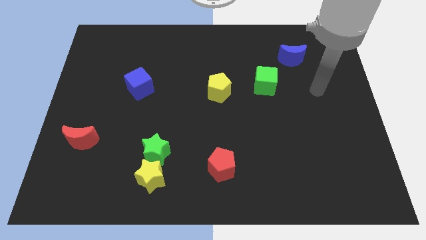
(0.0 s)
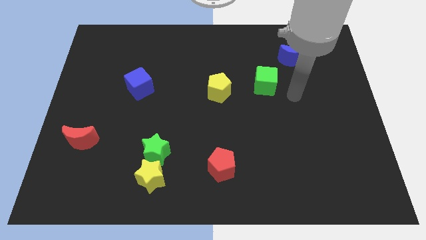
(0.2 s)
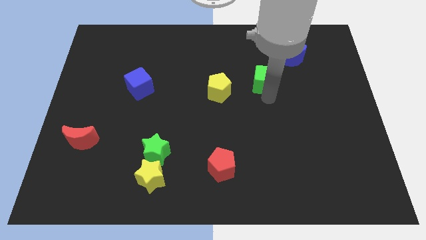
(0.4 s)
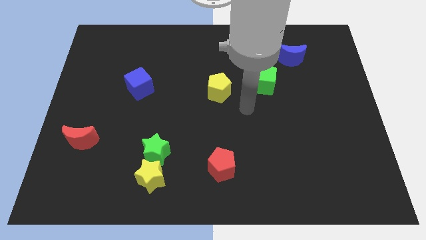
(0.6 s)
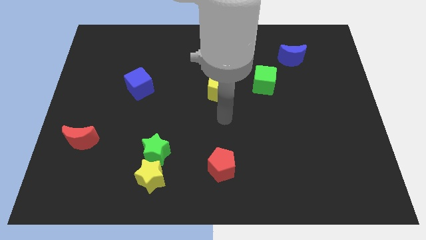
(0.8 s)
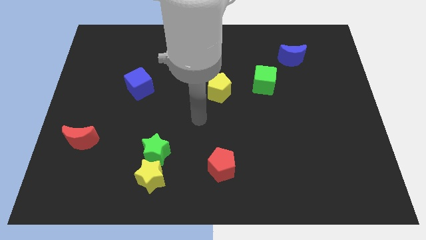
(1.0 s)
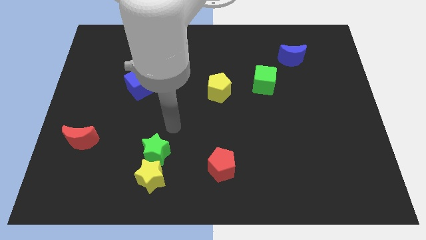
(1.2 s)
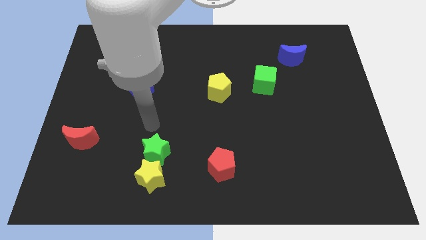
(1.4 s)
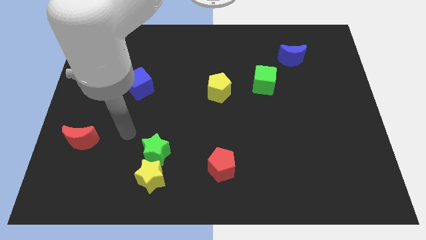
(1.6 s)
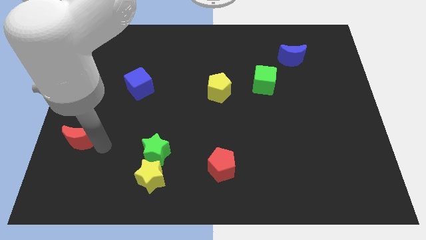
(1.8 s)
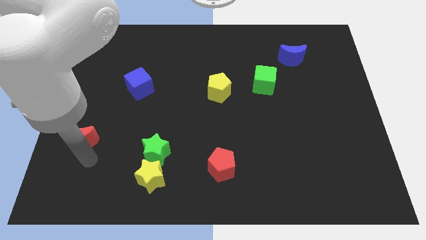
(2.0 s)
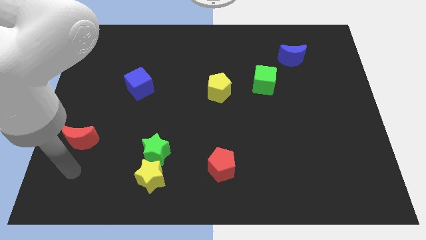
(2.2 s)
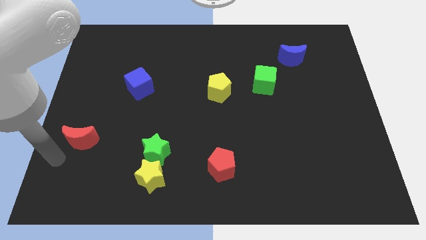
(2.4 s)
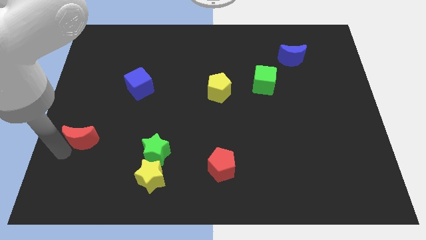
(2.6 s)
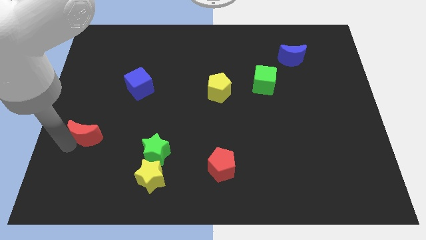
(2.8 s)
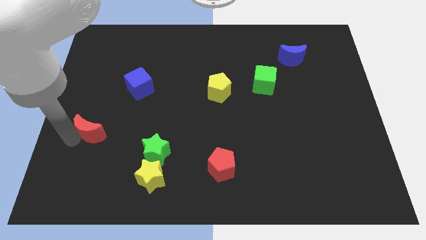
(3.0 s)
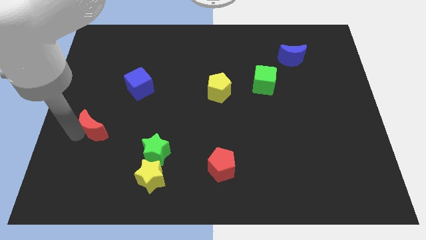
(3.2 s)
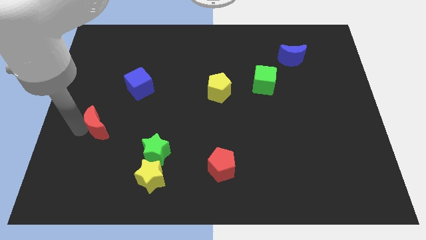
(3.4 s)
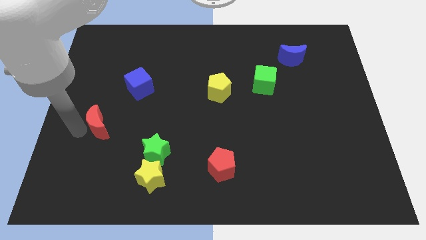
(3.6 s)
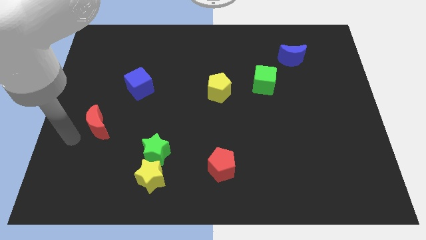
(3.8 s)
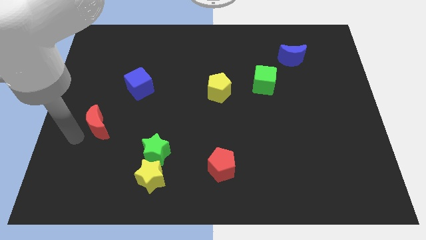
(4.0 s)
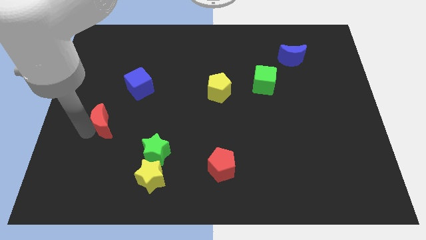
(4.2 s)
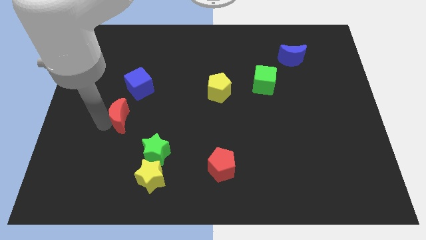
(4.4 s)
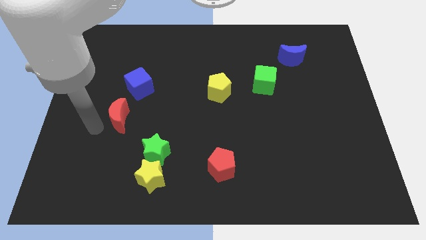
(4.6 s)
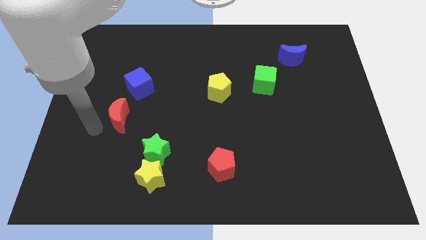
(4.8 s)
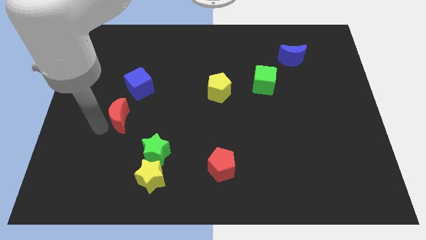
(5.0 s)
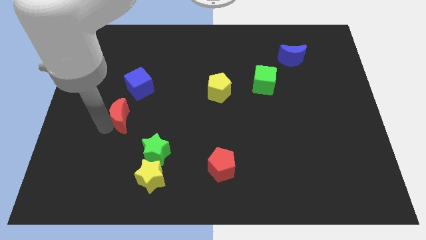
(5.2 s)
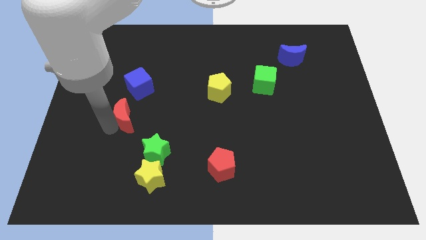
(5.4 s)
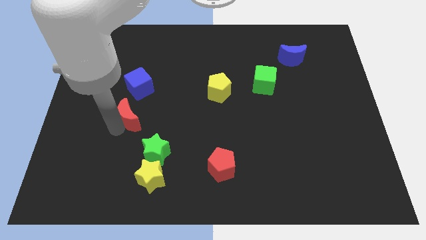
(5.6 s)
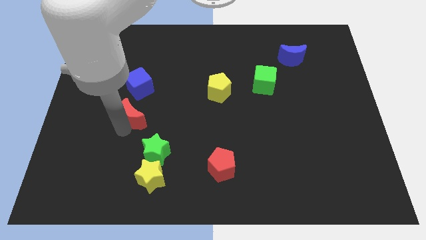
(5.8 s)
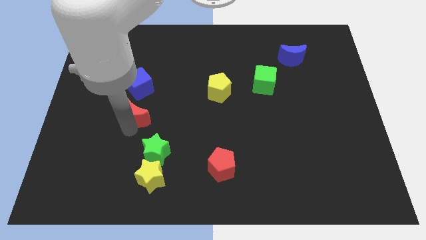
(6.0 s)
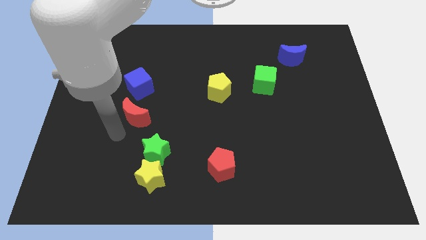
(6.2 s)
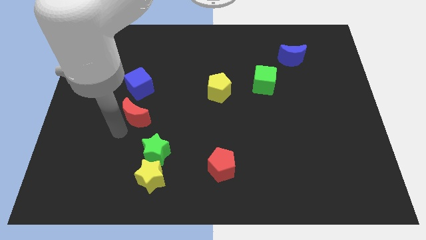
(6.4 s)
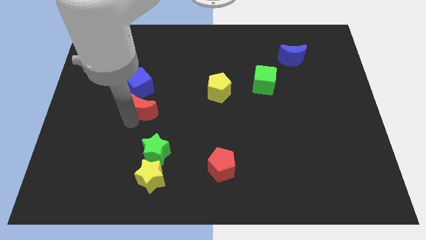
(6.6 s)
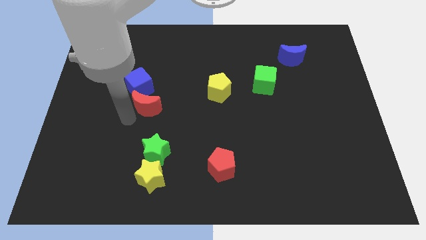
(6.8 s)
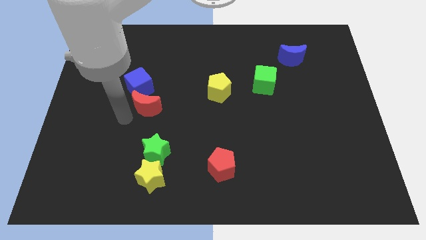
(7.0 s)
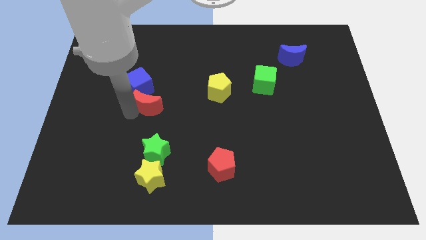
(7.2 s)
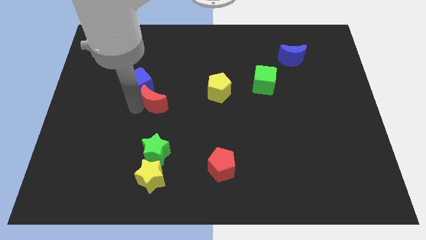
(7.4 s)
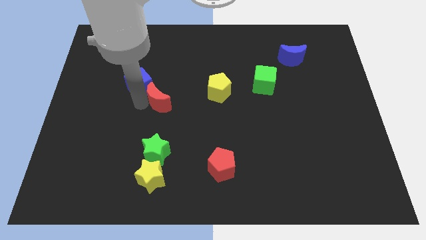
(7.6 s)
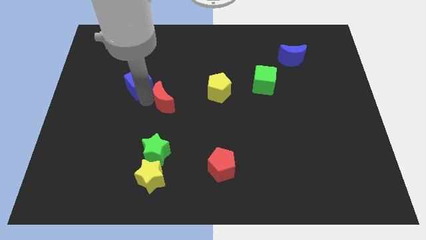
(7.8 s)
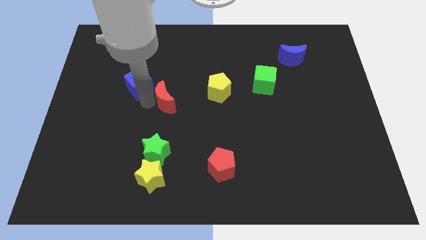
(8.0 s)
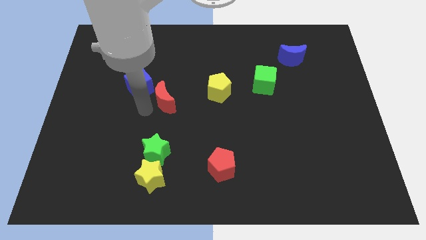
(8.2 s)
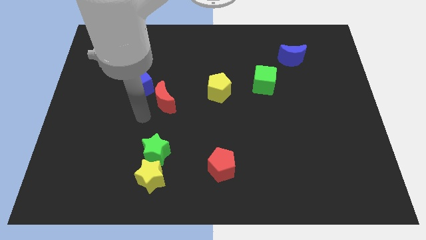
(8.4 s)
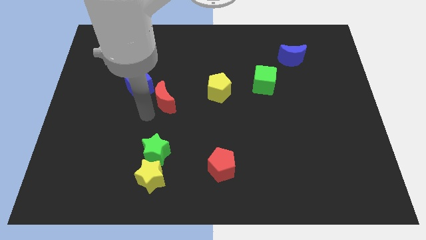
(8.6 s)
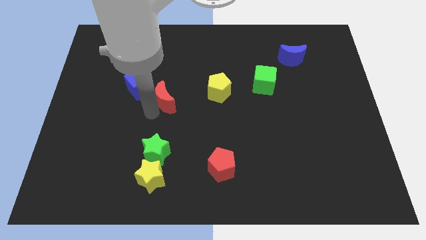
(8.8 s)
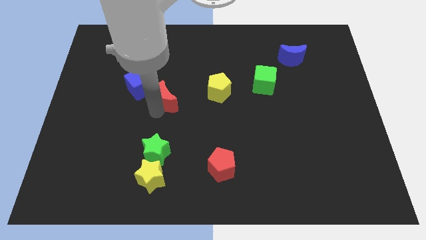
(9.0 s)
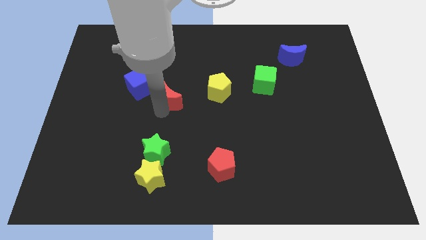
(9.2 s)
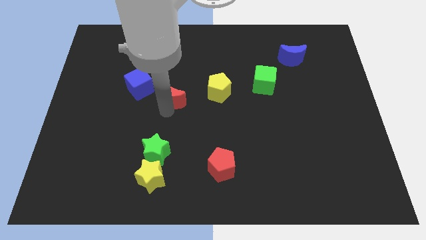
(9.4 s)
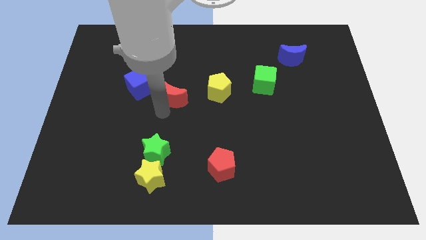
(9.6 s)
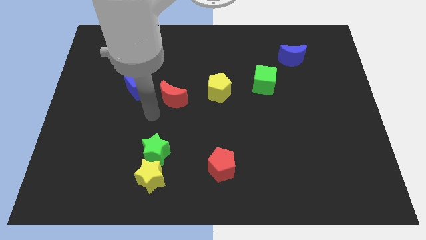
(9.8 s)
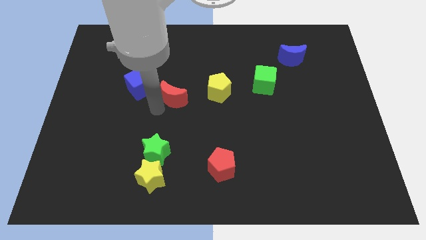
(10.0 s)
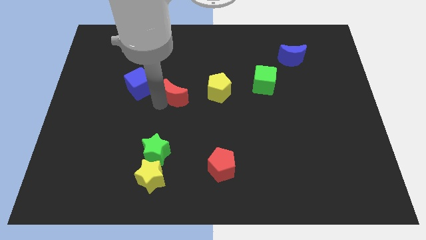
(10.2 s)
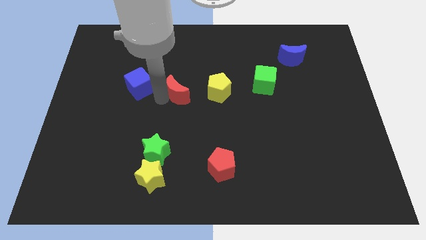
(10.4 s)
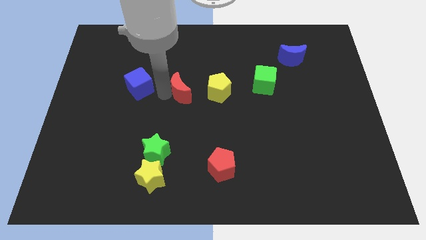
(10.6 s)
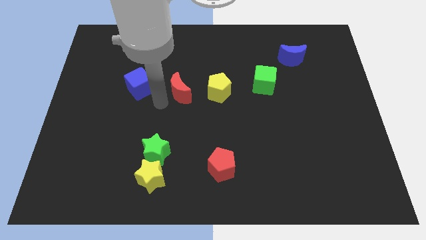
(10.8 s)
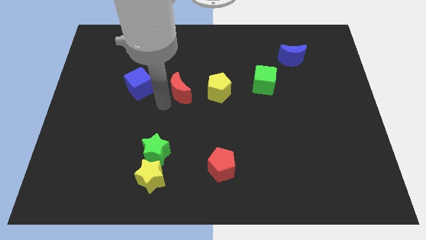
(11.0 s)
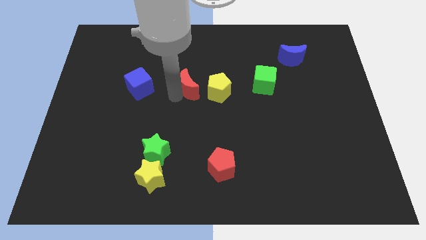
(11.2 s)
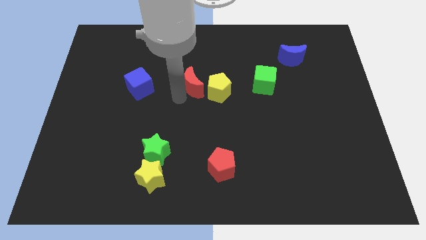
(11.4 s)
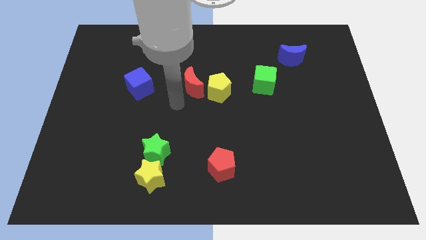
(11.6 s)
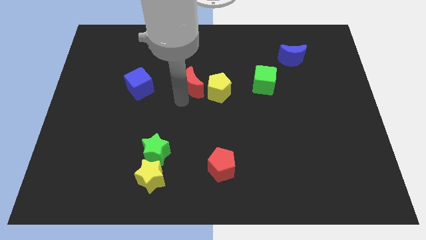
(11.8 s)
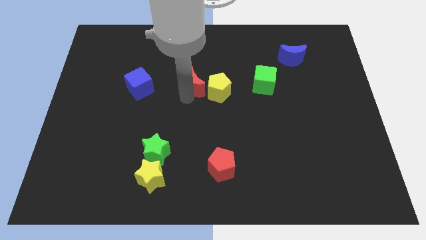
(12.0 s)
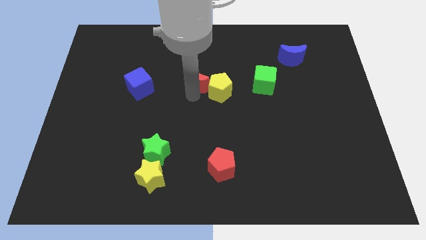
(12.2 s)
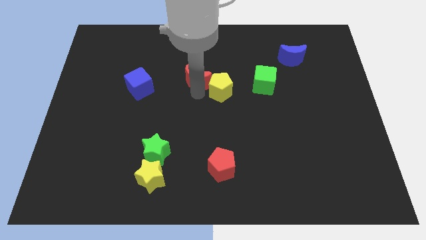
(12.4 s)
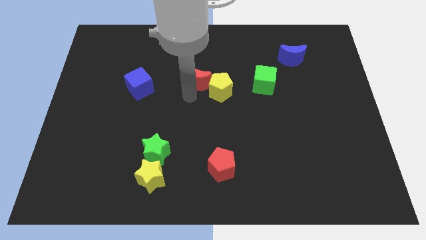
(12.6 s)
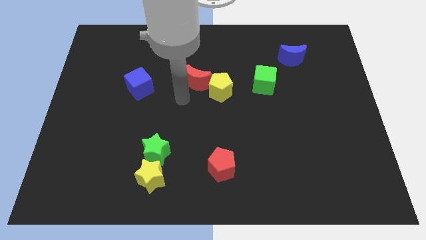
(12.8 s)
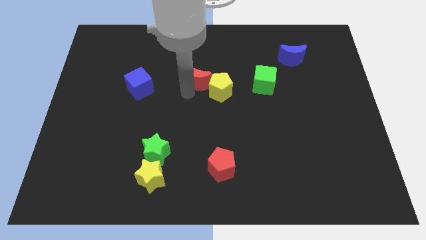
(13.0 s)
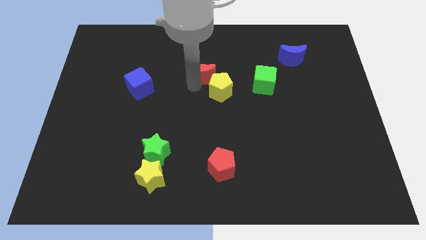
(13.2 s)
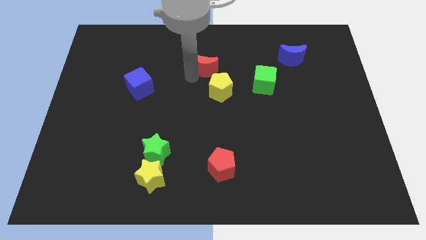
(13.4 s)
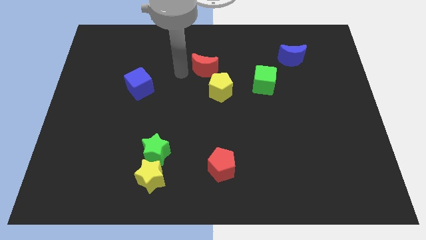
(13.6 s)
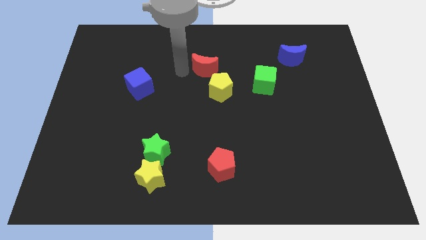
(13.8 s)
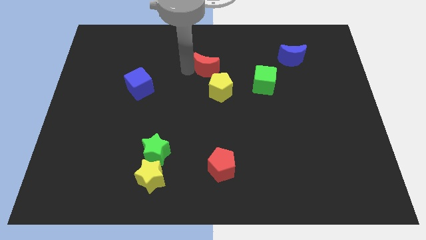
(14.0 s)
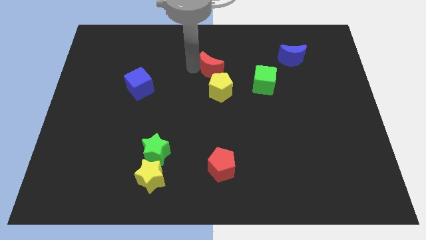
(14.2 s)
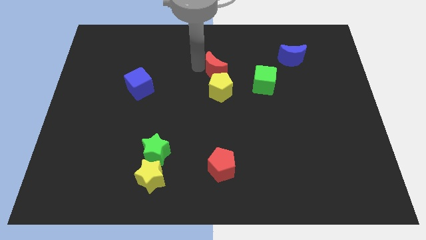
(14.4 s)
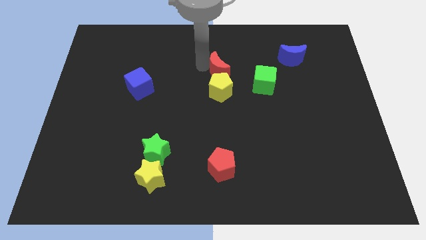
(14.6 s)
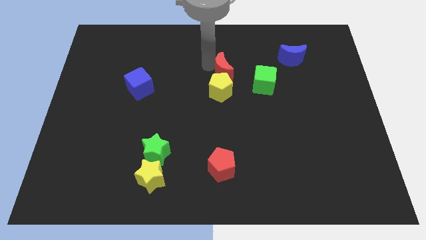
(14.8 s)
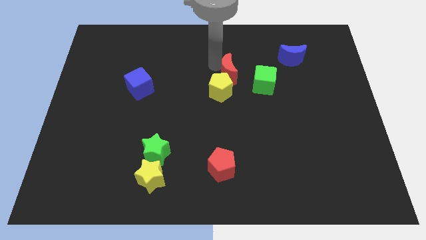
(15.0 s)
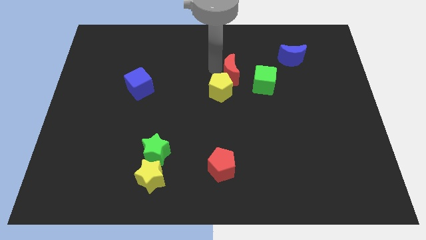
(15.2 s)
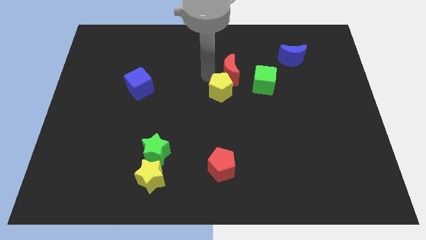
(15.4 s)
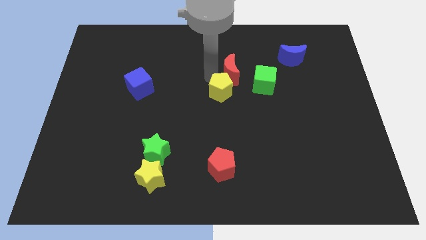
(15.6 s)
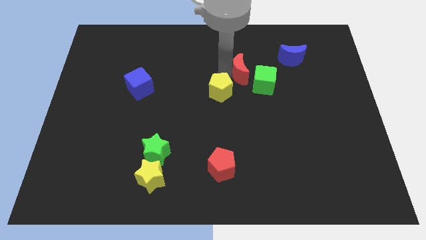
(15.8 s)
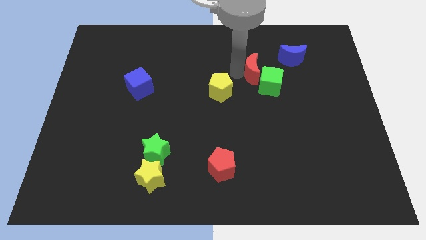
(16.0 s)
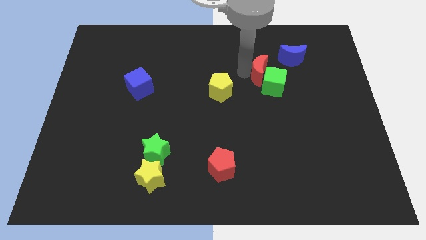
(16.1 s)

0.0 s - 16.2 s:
move the red moon diagonally down and to the left of the blue moon
